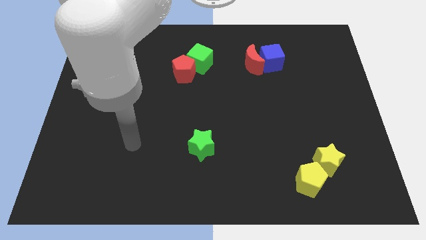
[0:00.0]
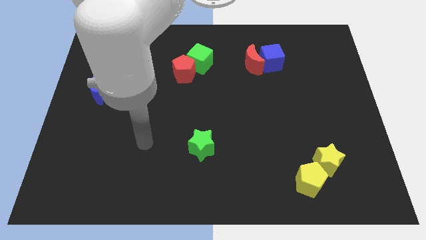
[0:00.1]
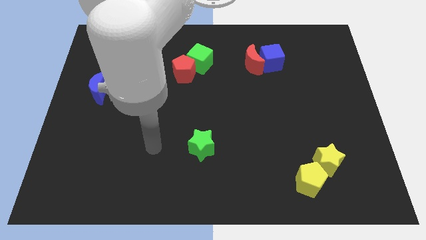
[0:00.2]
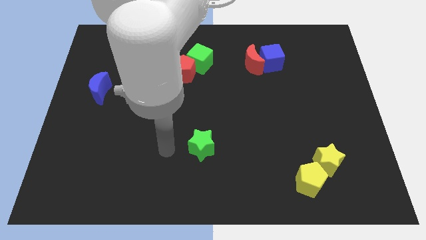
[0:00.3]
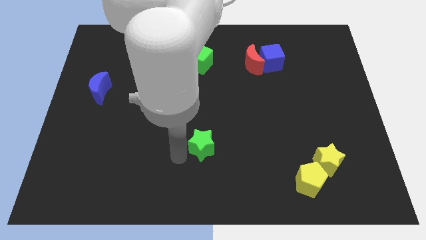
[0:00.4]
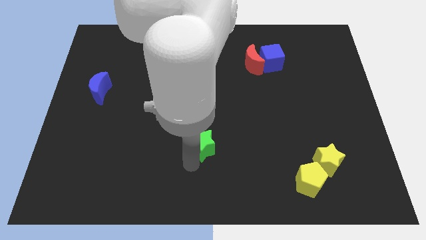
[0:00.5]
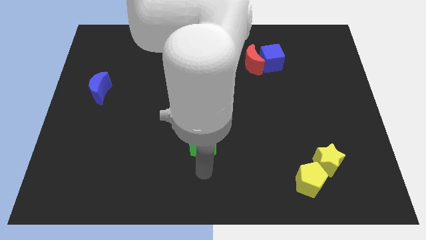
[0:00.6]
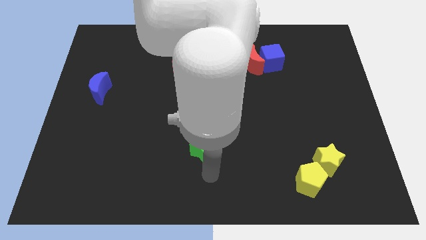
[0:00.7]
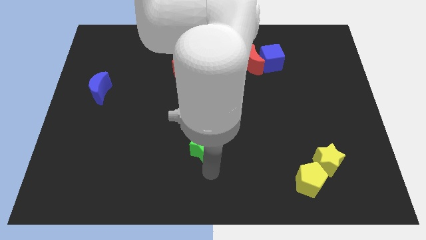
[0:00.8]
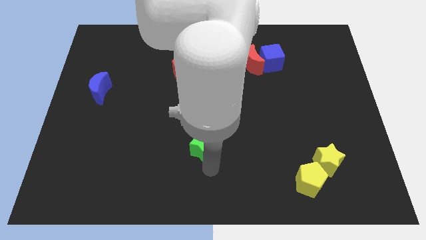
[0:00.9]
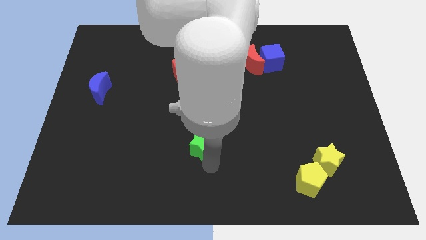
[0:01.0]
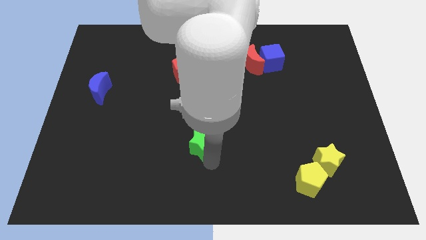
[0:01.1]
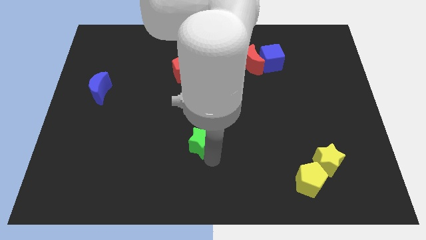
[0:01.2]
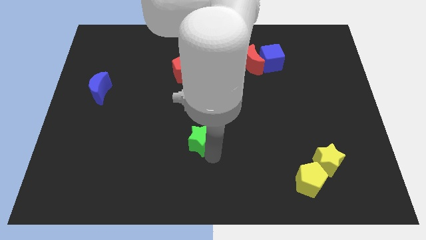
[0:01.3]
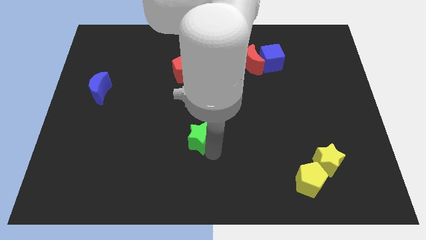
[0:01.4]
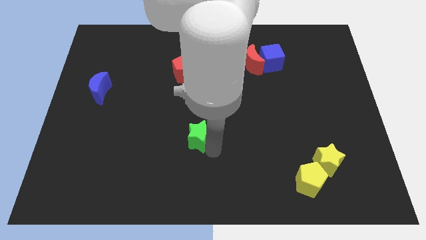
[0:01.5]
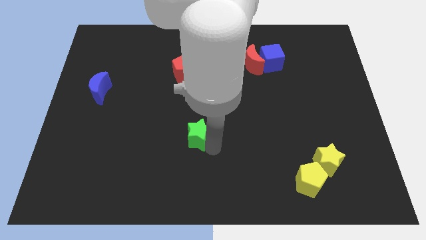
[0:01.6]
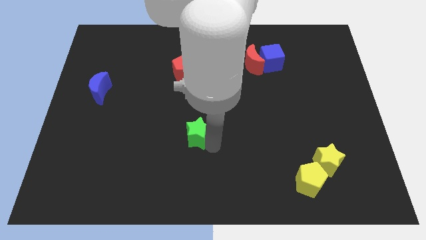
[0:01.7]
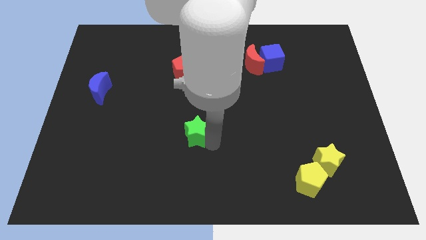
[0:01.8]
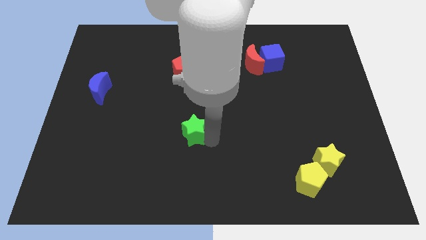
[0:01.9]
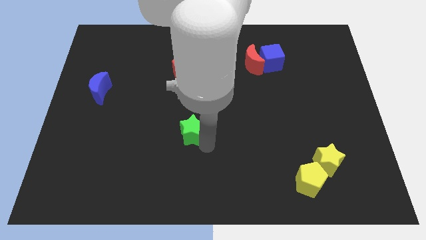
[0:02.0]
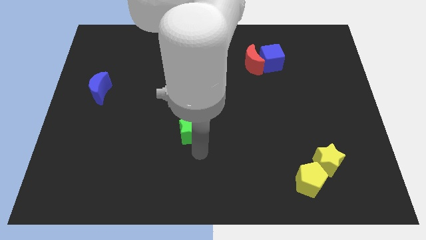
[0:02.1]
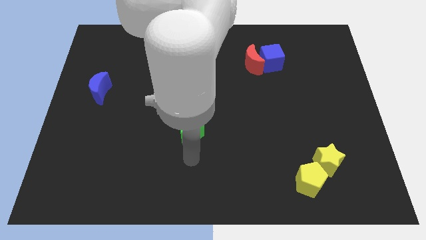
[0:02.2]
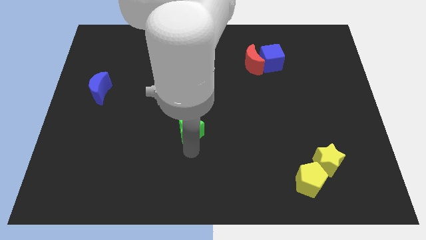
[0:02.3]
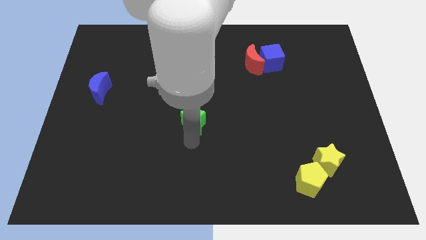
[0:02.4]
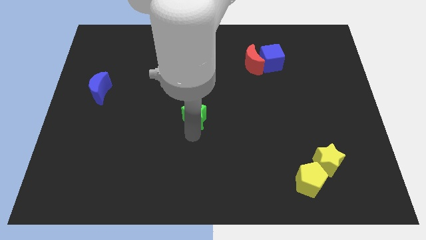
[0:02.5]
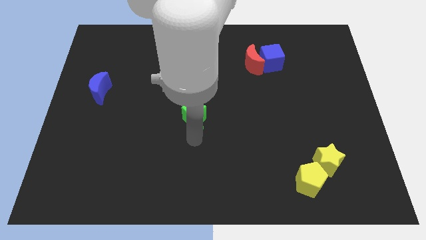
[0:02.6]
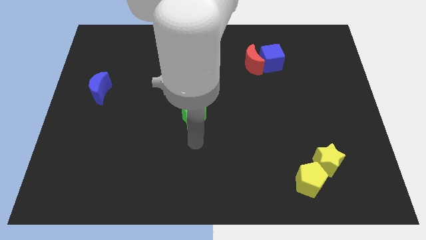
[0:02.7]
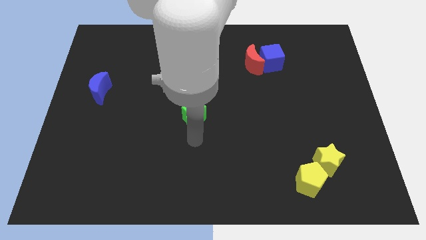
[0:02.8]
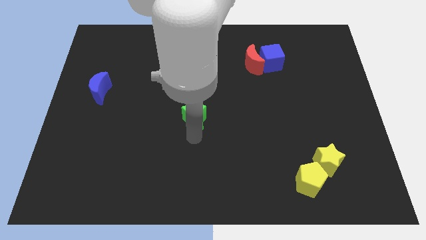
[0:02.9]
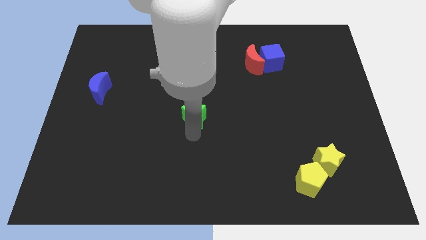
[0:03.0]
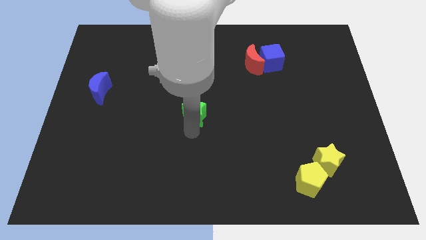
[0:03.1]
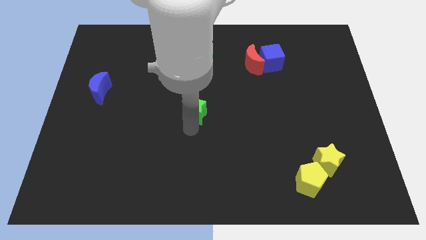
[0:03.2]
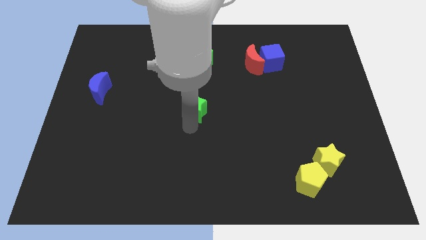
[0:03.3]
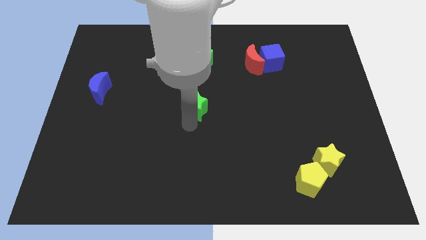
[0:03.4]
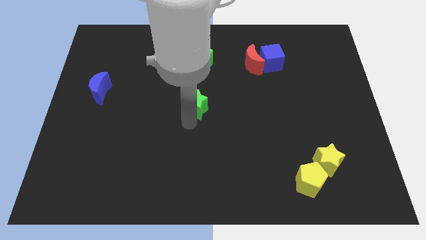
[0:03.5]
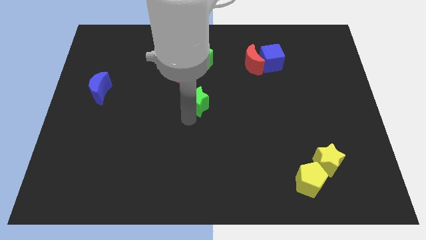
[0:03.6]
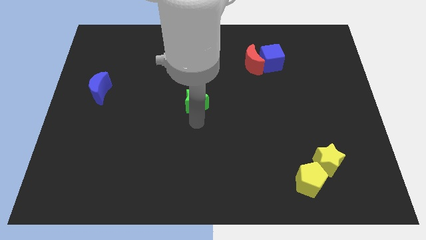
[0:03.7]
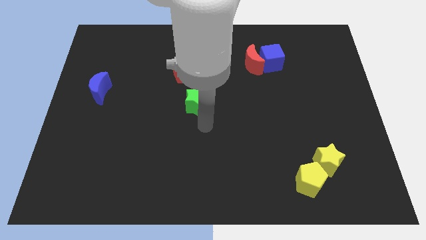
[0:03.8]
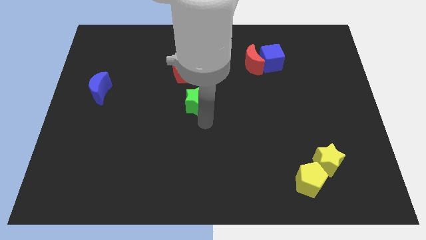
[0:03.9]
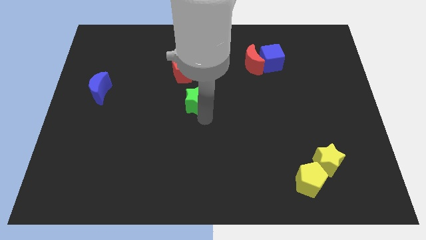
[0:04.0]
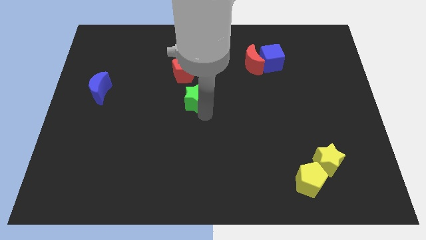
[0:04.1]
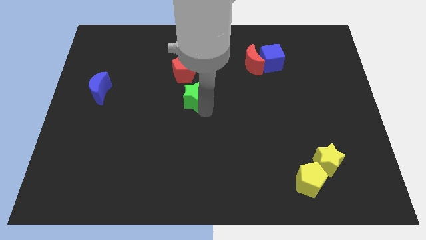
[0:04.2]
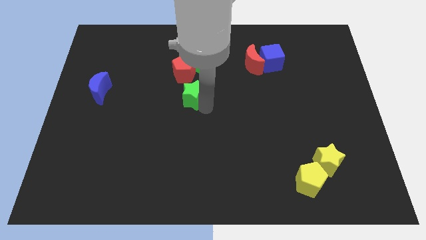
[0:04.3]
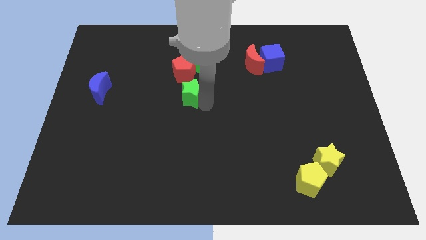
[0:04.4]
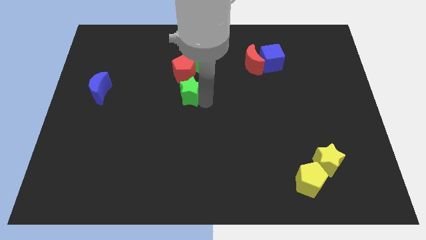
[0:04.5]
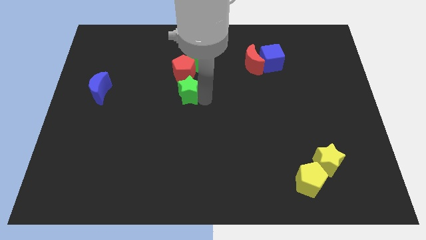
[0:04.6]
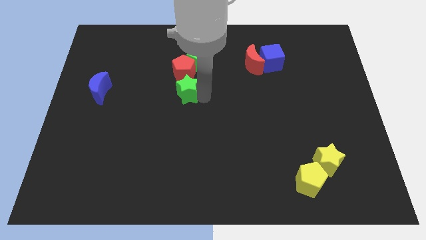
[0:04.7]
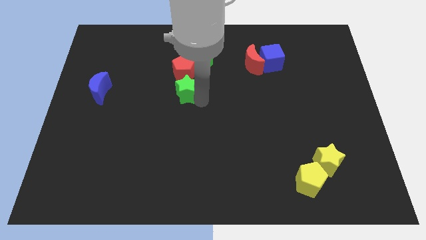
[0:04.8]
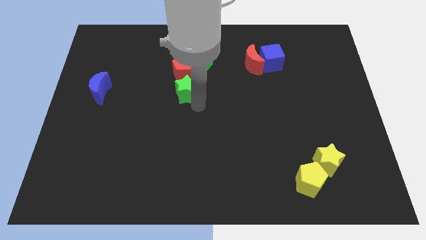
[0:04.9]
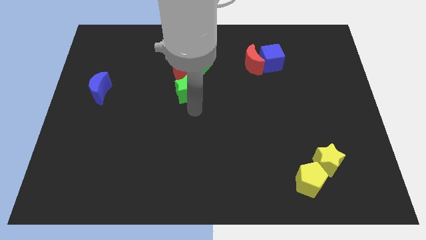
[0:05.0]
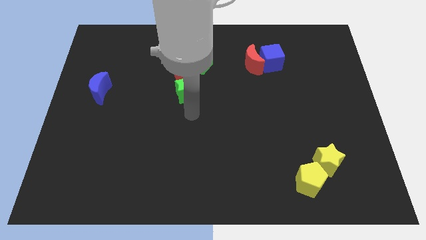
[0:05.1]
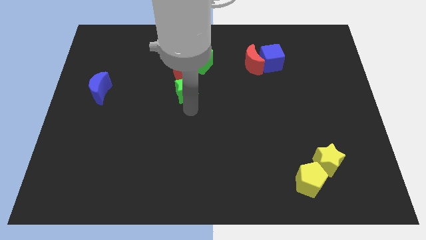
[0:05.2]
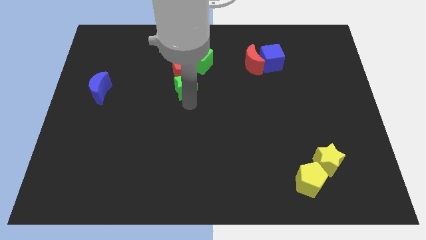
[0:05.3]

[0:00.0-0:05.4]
push the green star towards the red pentagon

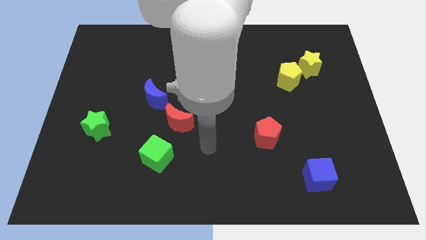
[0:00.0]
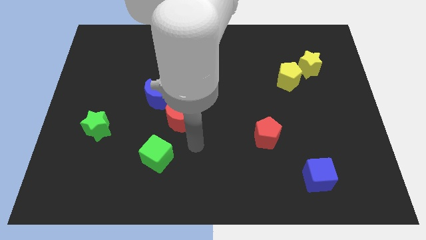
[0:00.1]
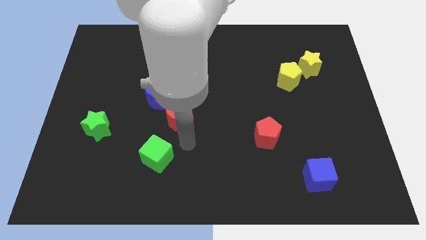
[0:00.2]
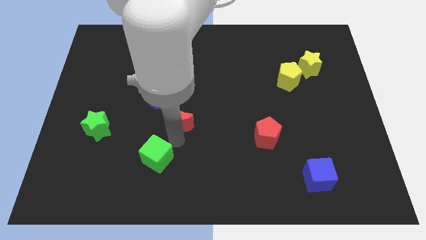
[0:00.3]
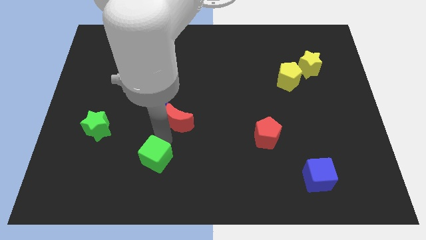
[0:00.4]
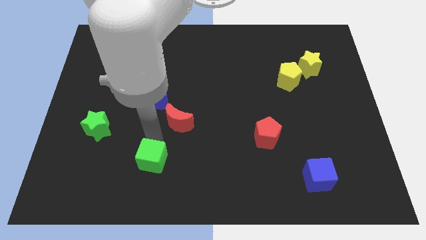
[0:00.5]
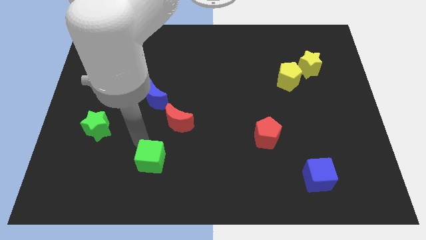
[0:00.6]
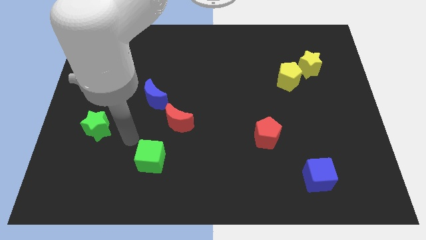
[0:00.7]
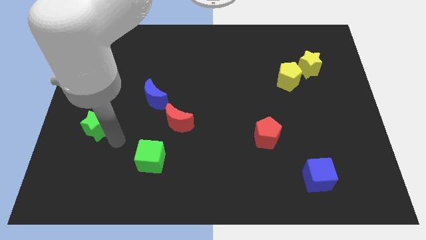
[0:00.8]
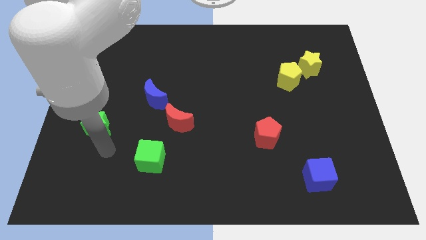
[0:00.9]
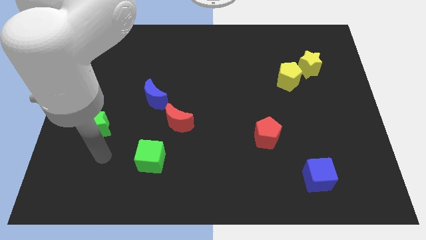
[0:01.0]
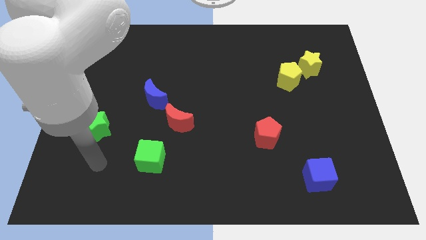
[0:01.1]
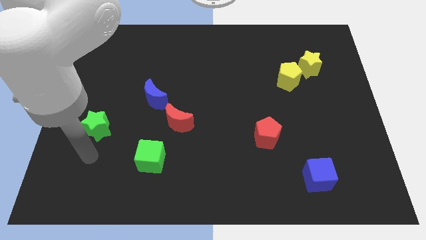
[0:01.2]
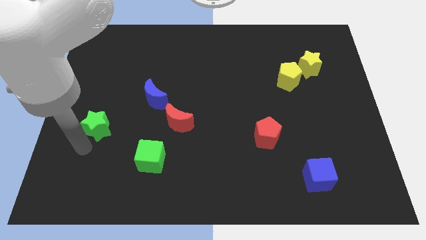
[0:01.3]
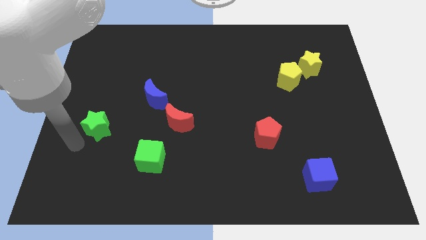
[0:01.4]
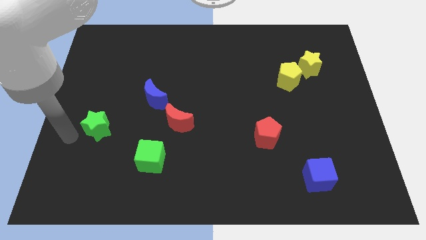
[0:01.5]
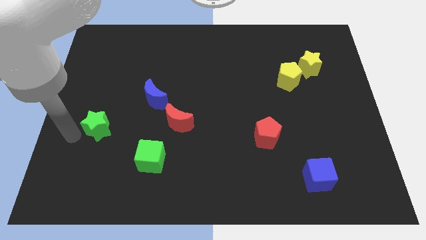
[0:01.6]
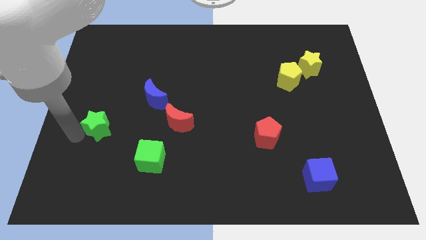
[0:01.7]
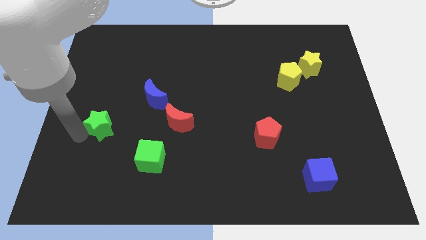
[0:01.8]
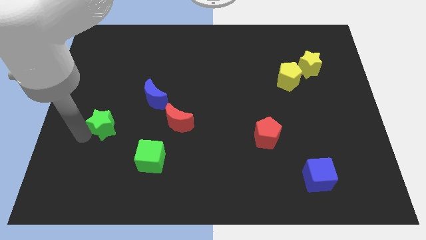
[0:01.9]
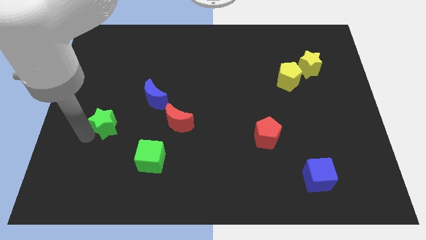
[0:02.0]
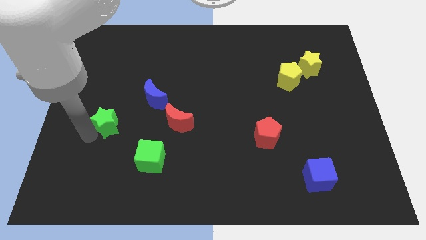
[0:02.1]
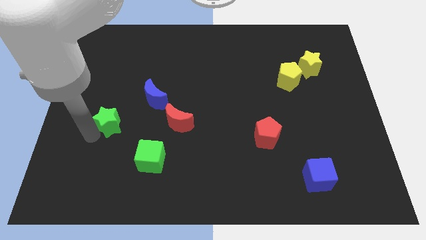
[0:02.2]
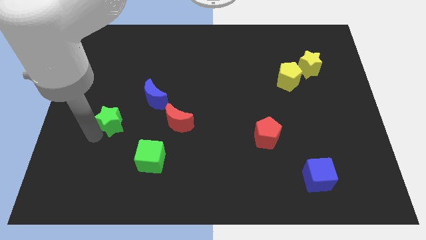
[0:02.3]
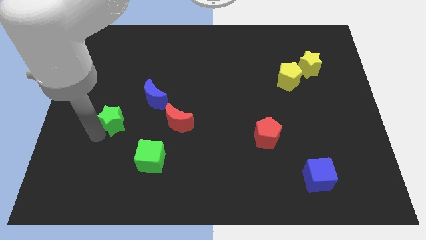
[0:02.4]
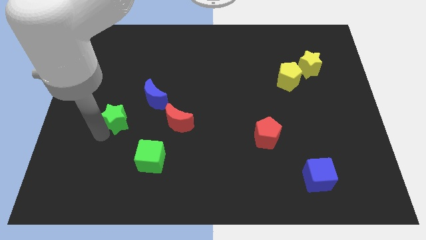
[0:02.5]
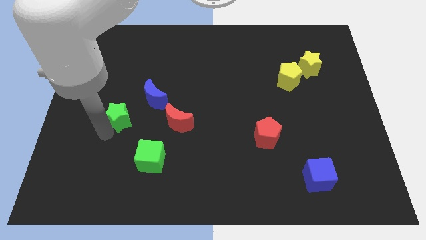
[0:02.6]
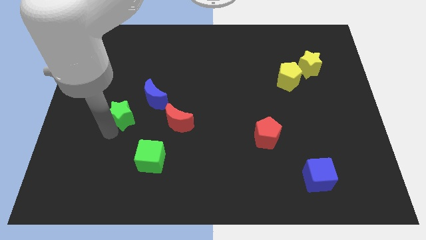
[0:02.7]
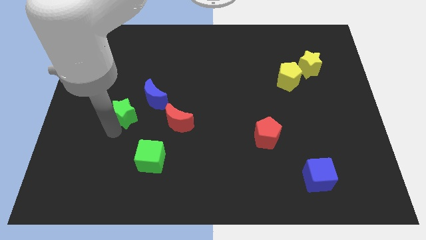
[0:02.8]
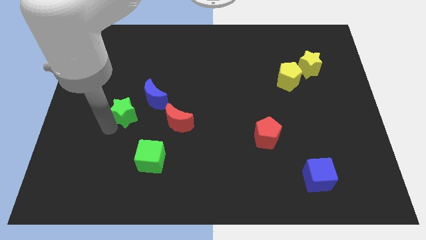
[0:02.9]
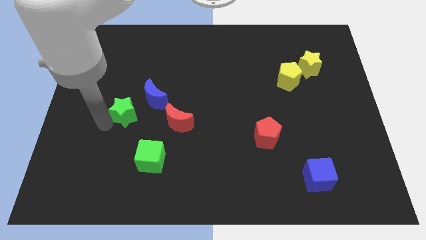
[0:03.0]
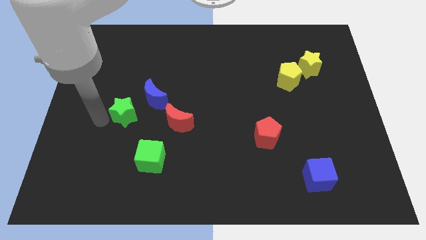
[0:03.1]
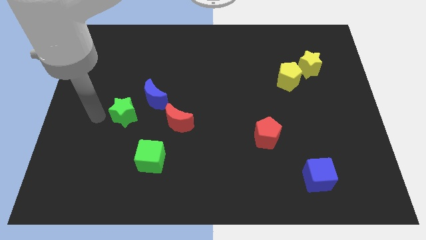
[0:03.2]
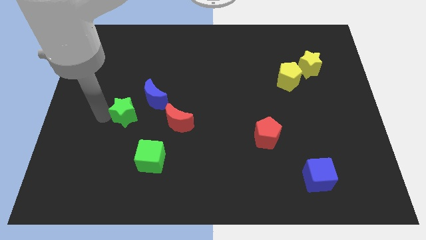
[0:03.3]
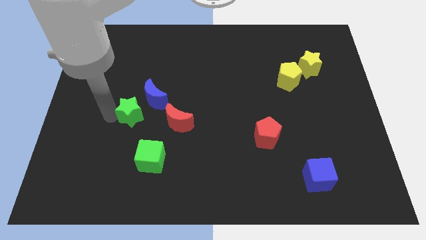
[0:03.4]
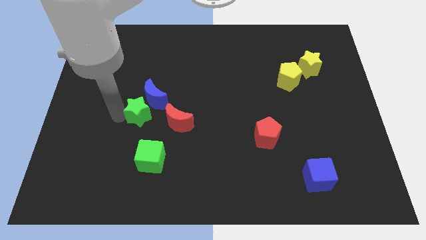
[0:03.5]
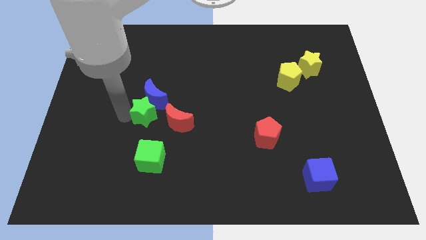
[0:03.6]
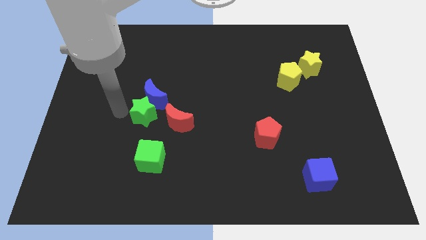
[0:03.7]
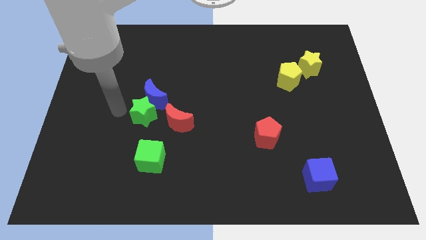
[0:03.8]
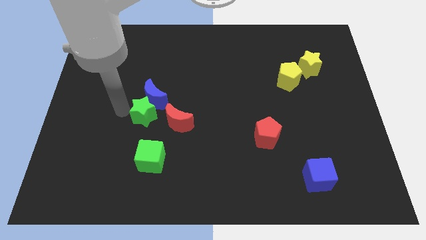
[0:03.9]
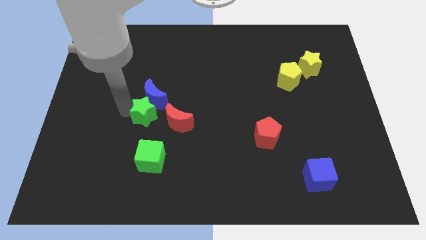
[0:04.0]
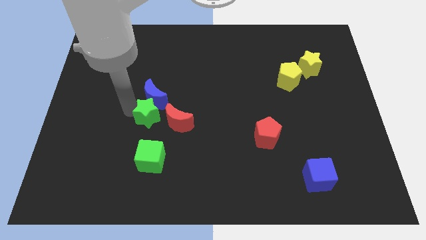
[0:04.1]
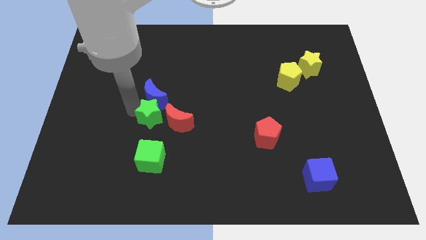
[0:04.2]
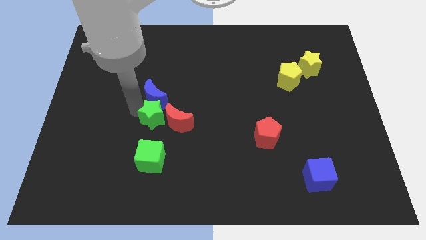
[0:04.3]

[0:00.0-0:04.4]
slide the green star close to the red moon
